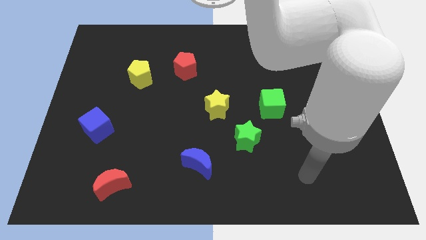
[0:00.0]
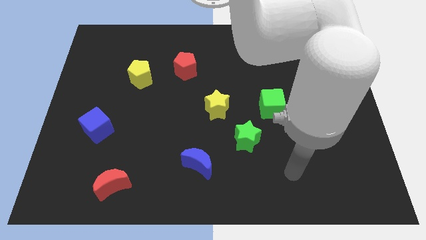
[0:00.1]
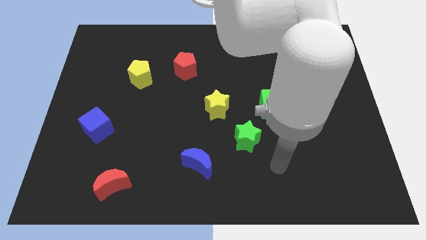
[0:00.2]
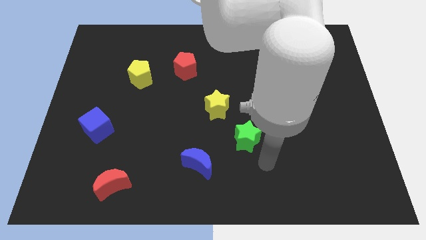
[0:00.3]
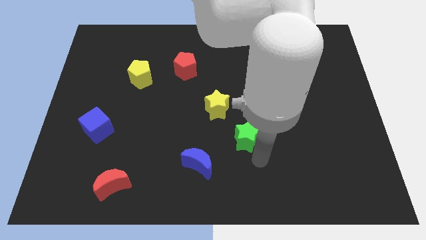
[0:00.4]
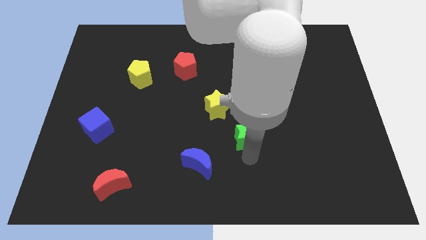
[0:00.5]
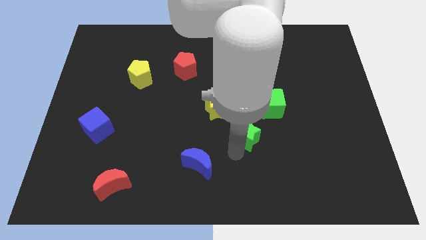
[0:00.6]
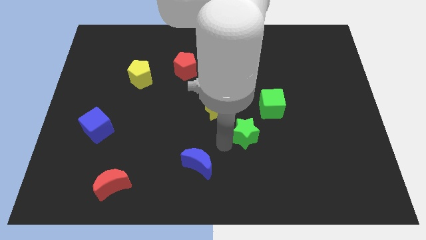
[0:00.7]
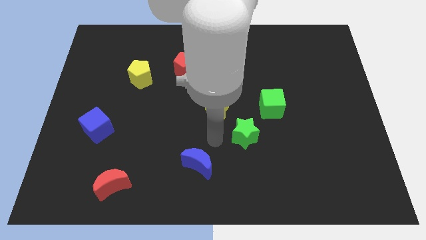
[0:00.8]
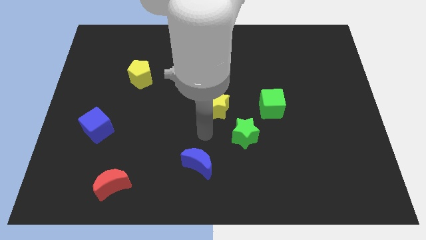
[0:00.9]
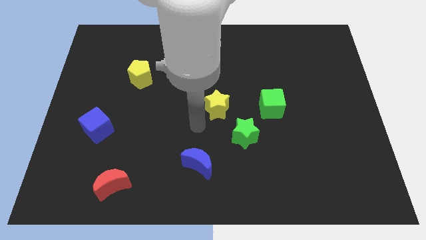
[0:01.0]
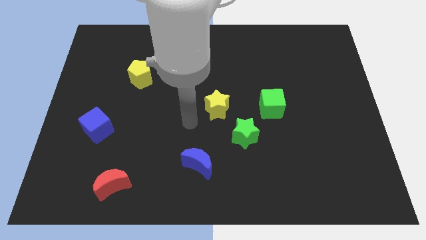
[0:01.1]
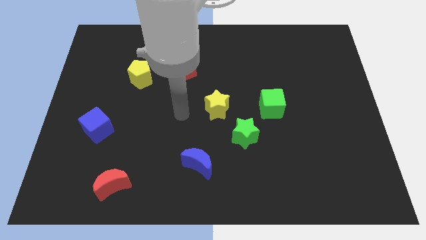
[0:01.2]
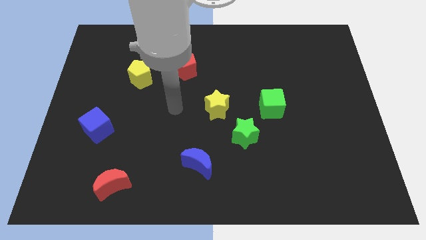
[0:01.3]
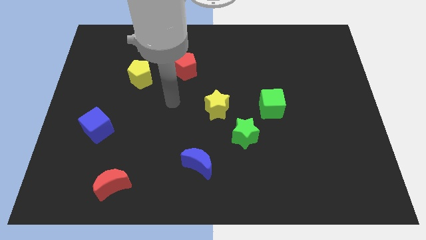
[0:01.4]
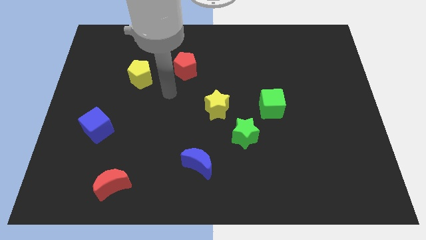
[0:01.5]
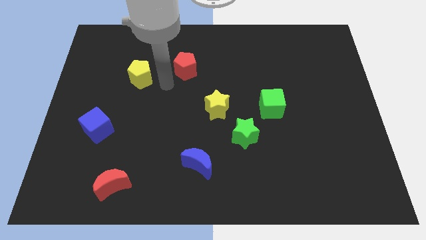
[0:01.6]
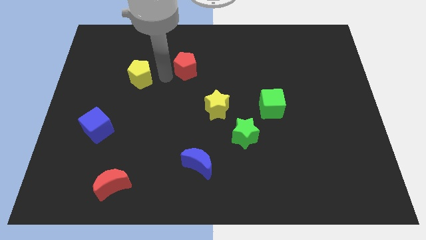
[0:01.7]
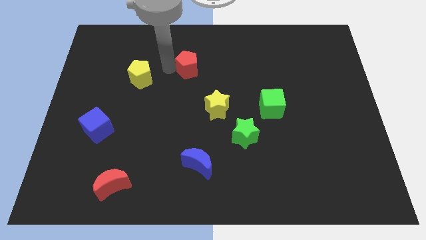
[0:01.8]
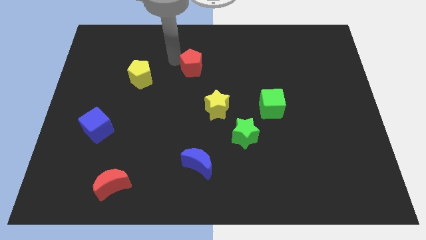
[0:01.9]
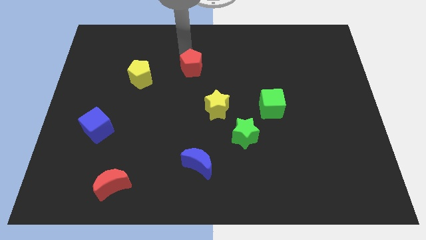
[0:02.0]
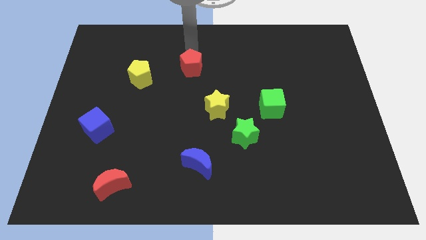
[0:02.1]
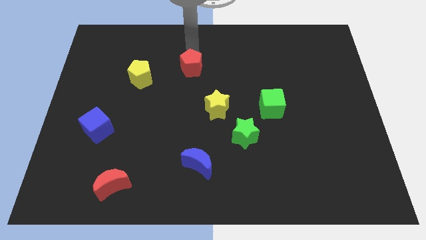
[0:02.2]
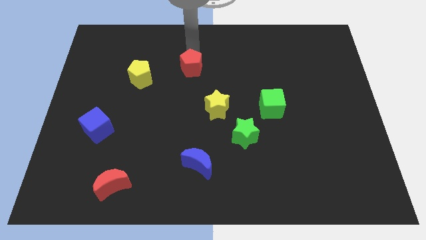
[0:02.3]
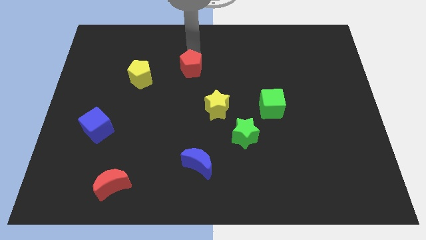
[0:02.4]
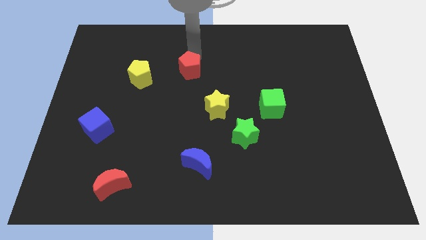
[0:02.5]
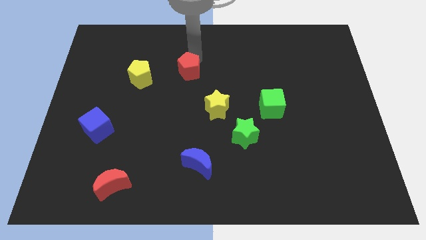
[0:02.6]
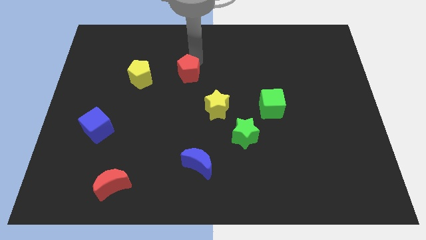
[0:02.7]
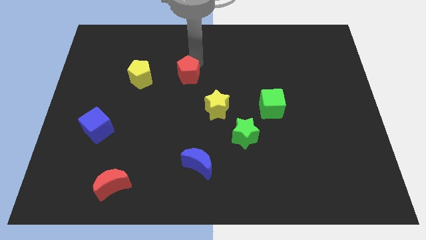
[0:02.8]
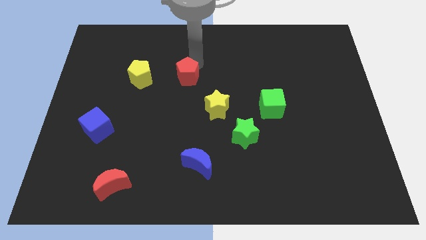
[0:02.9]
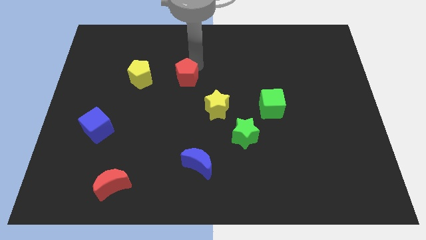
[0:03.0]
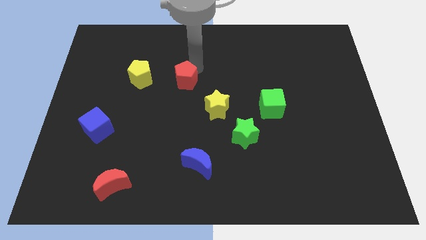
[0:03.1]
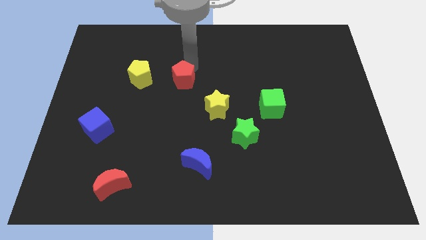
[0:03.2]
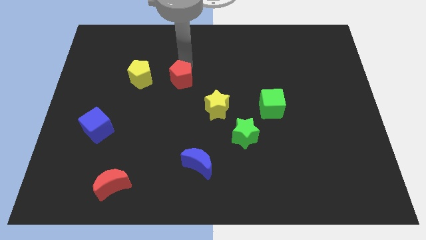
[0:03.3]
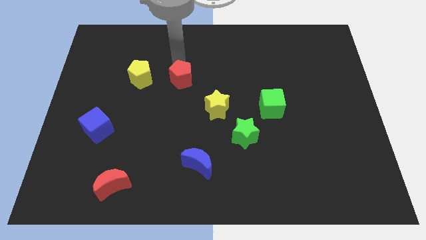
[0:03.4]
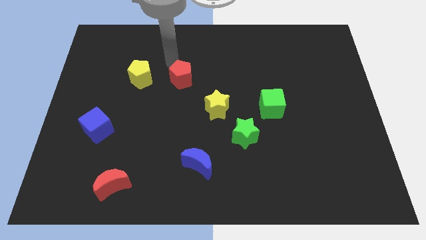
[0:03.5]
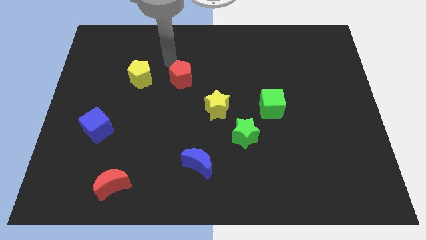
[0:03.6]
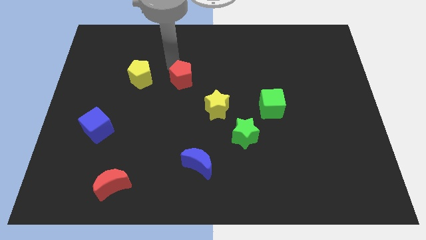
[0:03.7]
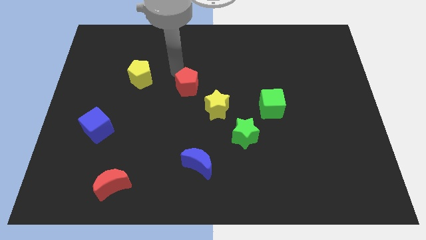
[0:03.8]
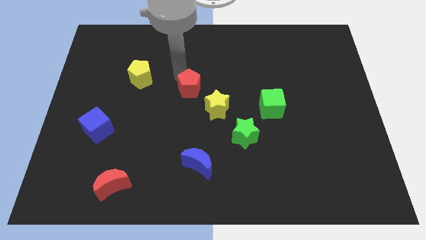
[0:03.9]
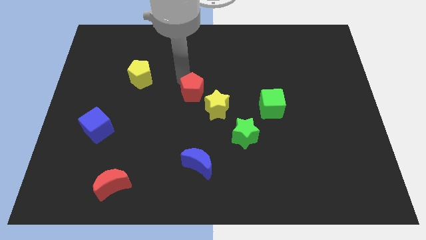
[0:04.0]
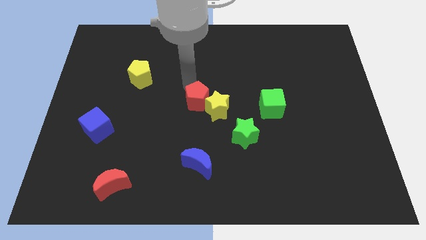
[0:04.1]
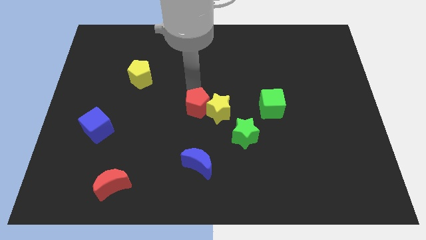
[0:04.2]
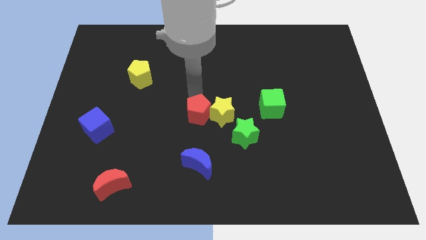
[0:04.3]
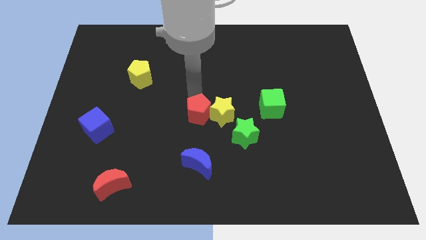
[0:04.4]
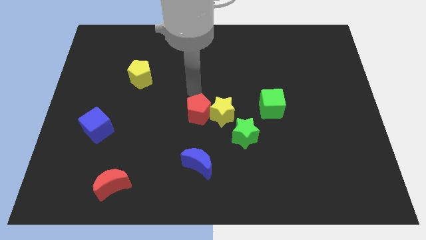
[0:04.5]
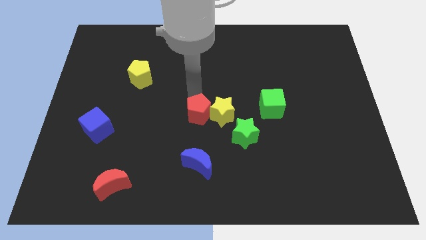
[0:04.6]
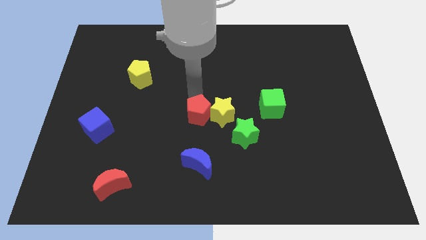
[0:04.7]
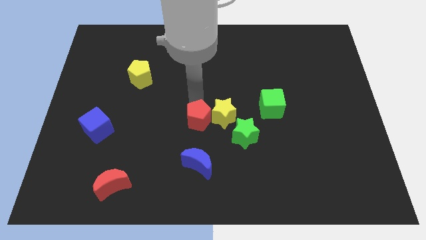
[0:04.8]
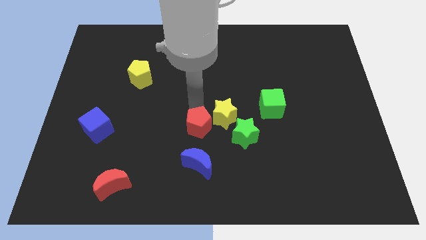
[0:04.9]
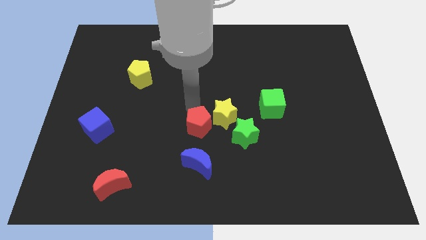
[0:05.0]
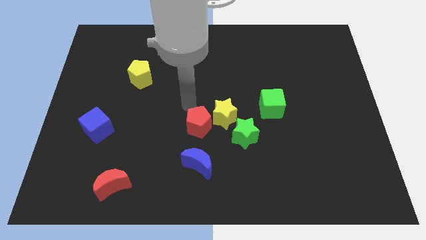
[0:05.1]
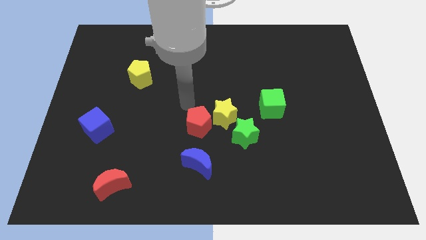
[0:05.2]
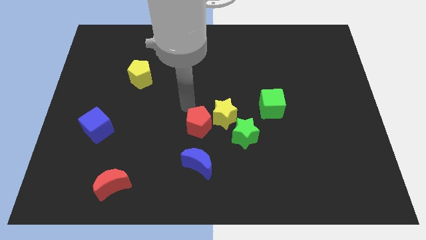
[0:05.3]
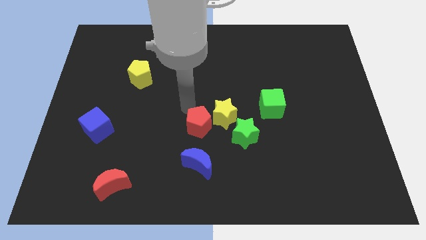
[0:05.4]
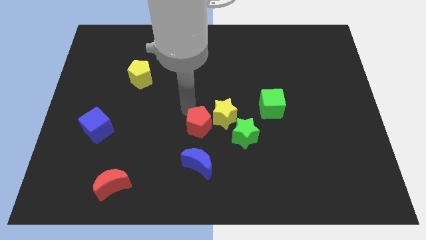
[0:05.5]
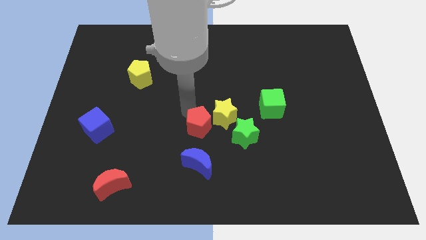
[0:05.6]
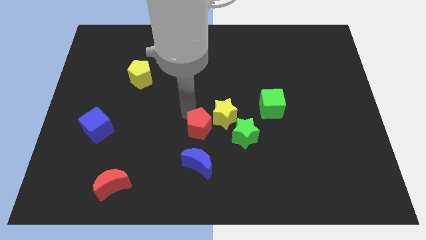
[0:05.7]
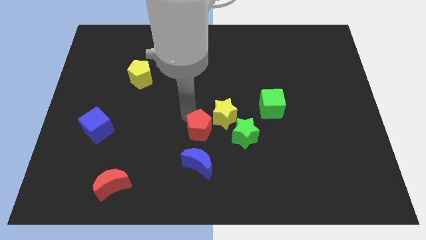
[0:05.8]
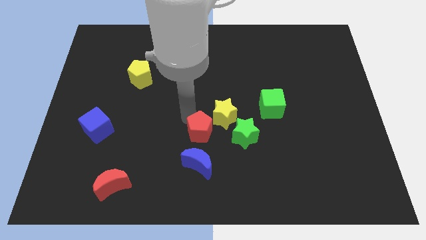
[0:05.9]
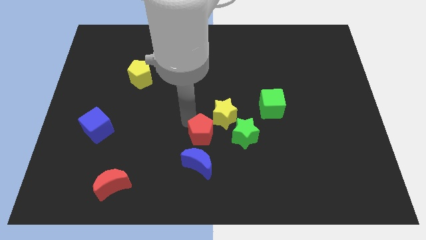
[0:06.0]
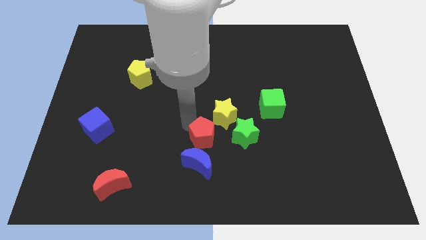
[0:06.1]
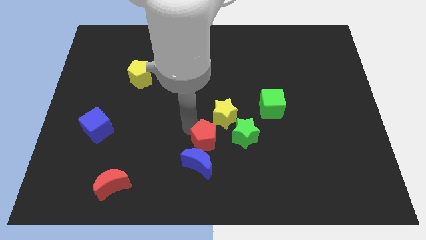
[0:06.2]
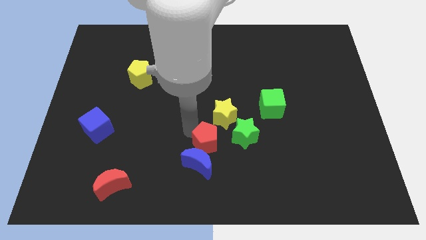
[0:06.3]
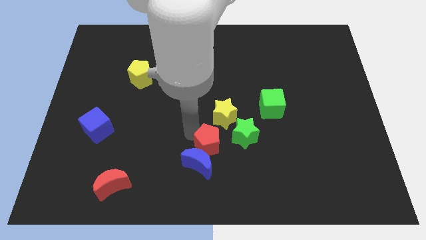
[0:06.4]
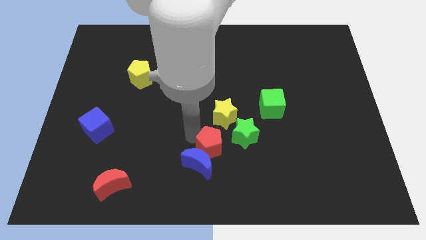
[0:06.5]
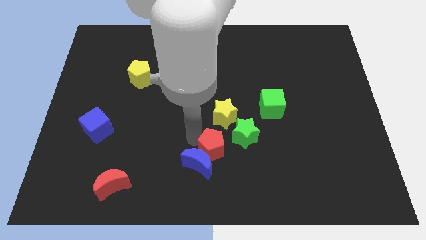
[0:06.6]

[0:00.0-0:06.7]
put the red pentagon right of the blue moon

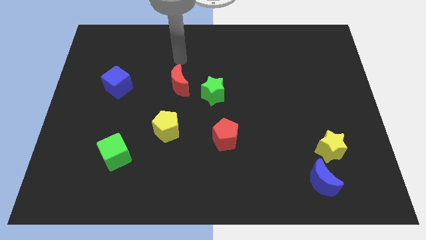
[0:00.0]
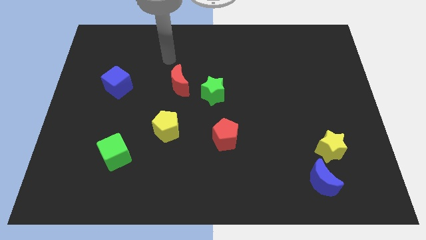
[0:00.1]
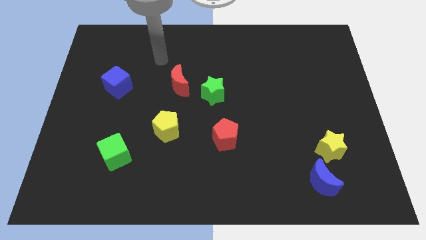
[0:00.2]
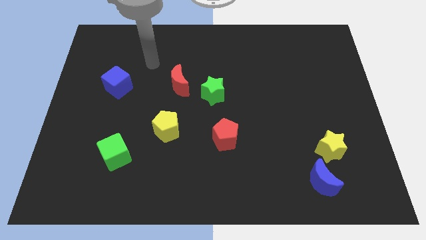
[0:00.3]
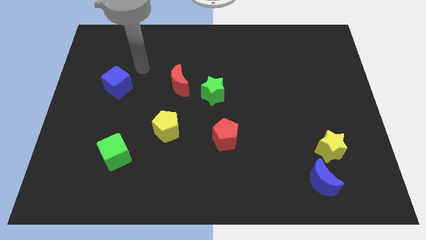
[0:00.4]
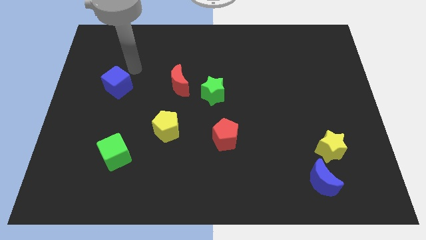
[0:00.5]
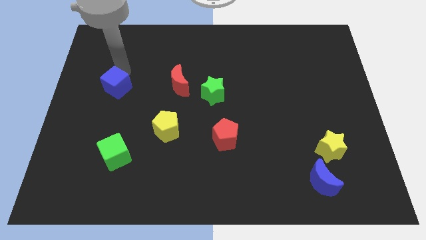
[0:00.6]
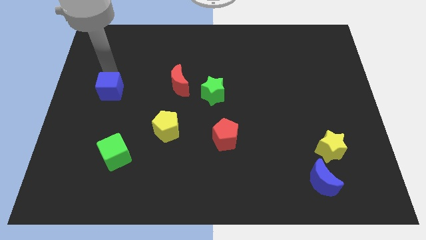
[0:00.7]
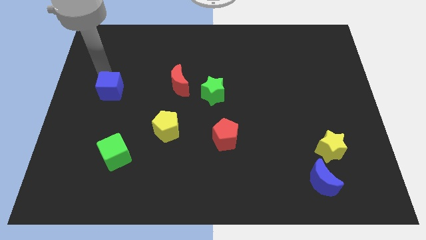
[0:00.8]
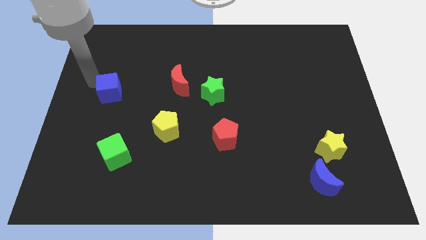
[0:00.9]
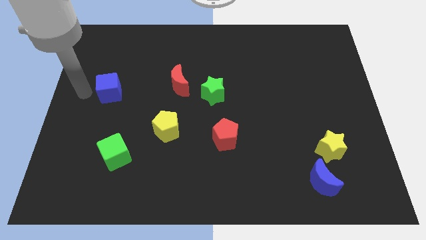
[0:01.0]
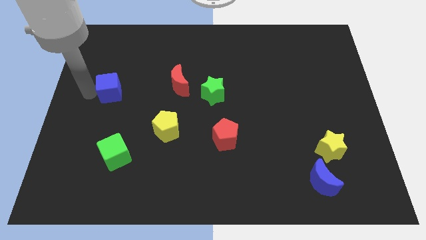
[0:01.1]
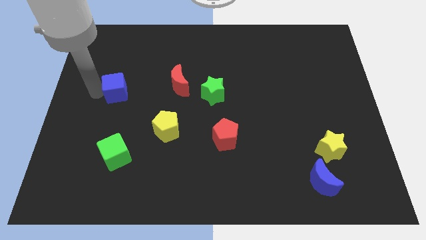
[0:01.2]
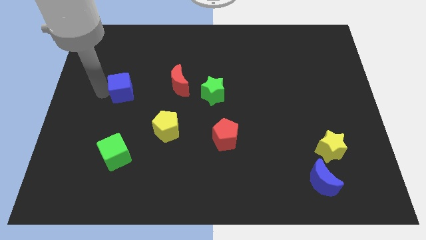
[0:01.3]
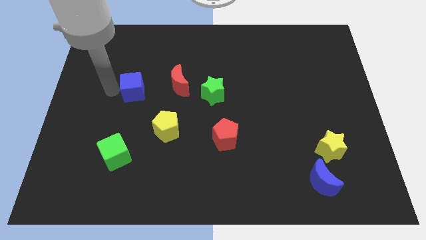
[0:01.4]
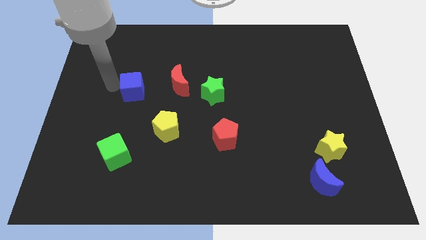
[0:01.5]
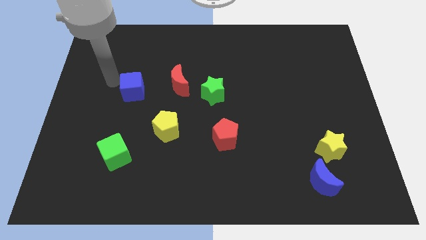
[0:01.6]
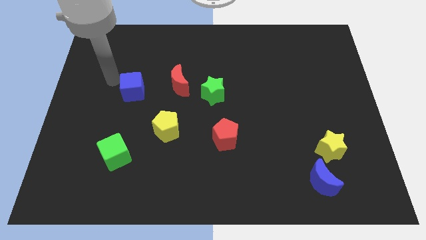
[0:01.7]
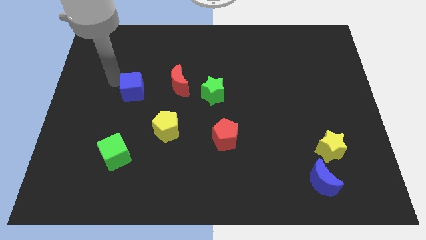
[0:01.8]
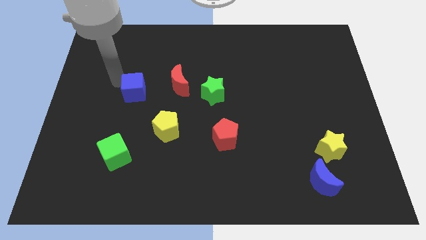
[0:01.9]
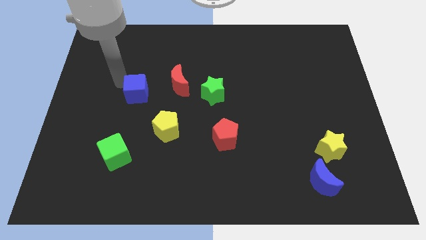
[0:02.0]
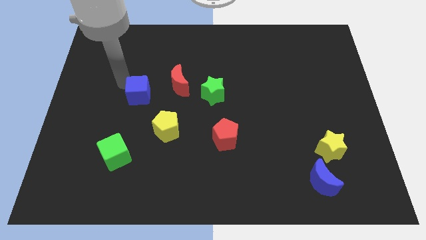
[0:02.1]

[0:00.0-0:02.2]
put the blue cube diagonally down and to the left of the red moon
